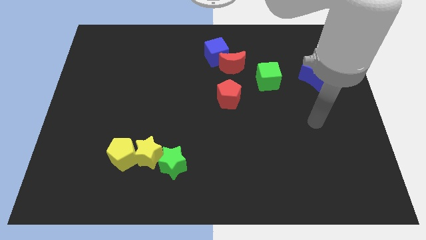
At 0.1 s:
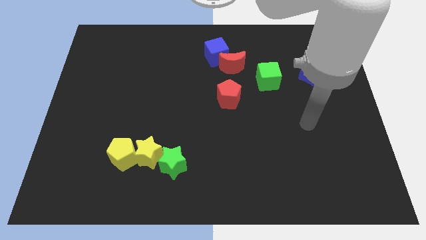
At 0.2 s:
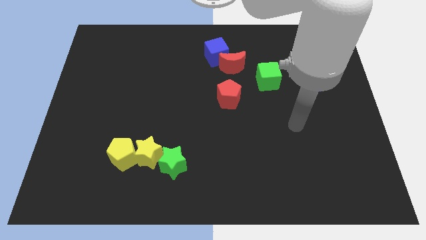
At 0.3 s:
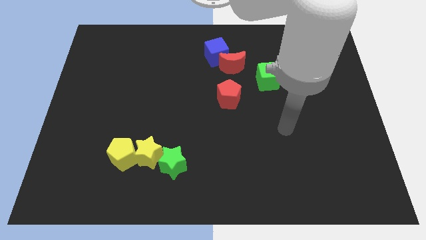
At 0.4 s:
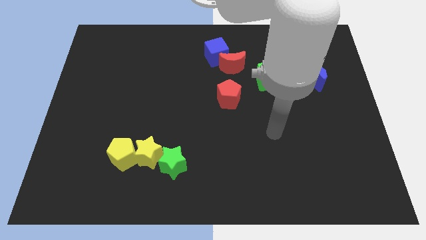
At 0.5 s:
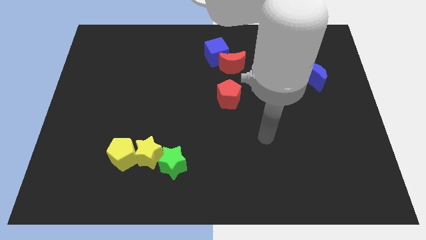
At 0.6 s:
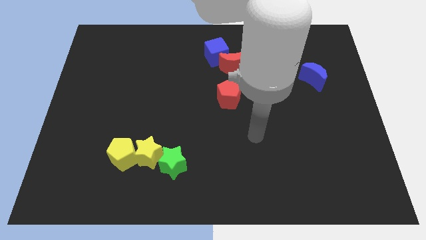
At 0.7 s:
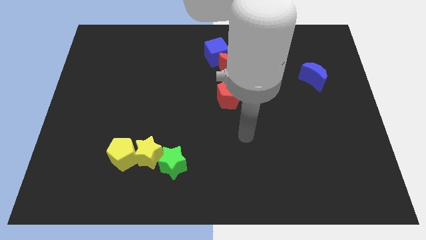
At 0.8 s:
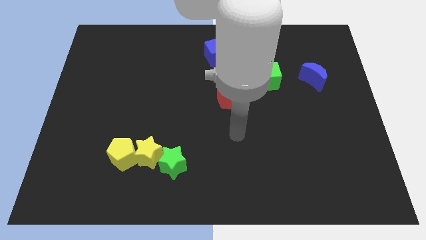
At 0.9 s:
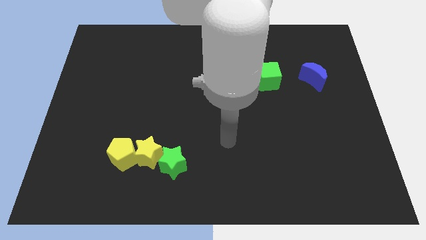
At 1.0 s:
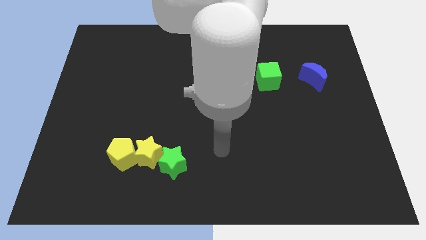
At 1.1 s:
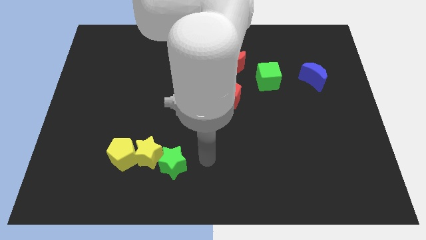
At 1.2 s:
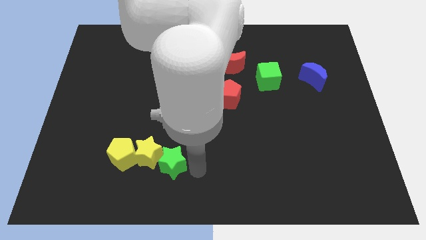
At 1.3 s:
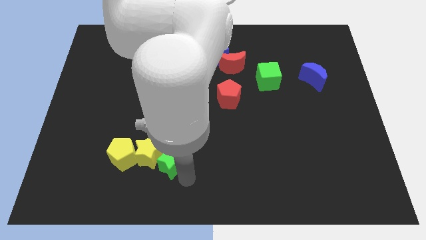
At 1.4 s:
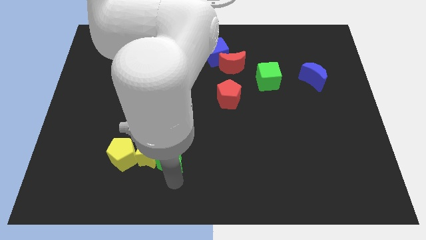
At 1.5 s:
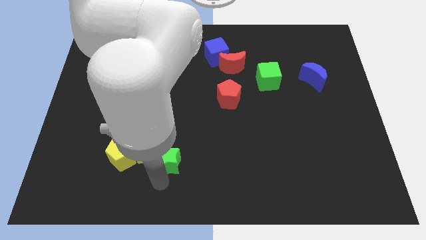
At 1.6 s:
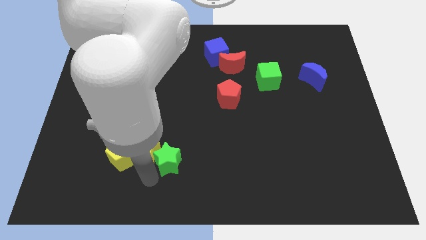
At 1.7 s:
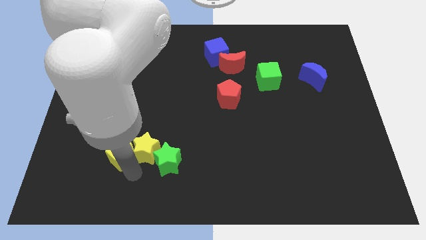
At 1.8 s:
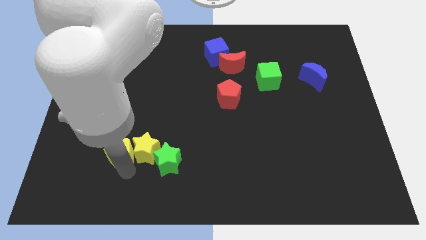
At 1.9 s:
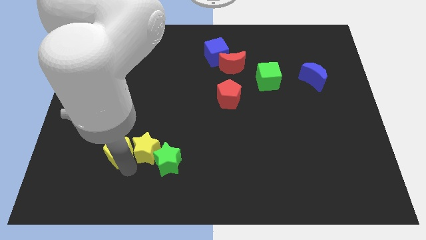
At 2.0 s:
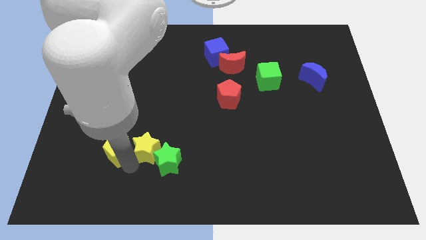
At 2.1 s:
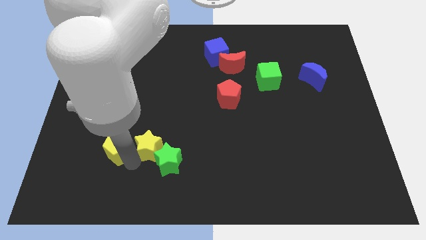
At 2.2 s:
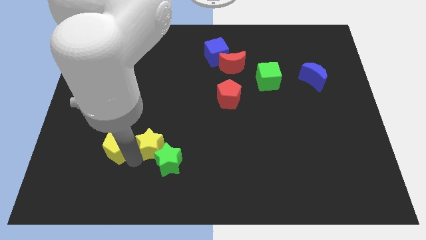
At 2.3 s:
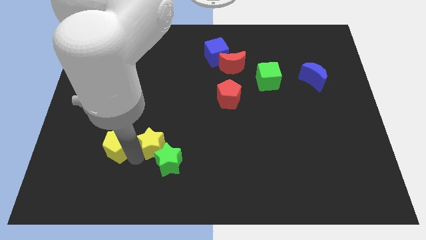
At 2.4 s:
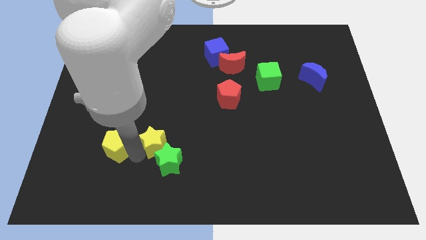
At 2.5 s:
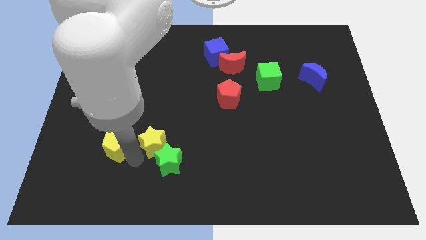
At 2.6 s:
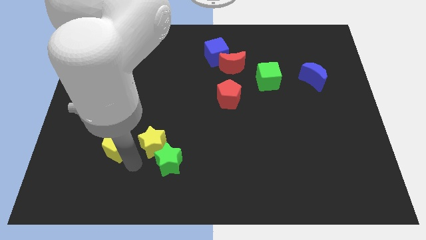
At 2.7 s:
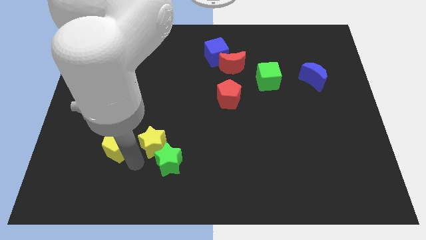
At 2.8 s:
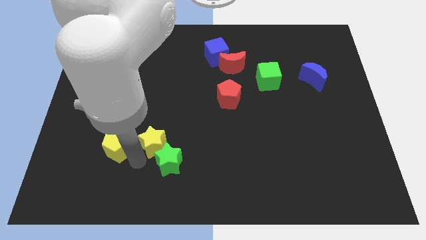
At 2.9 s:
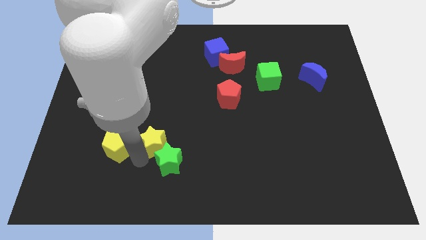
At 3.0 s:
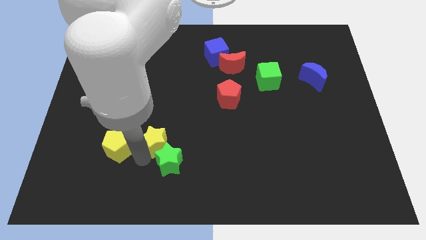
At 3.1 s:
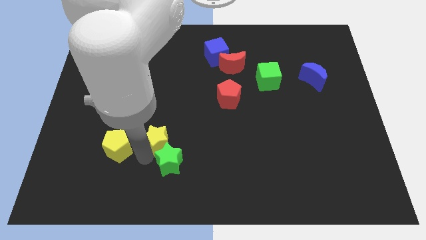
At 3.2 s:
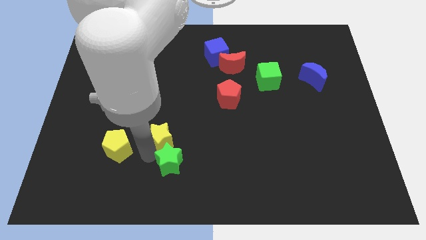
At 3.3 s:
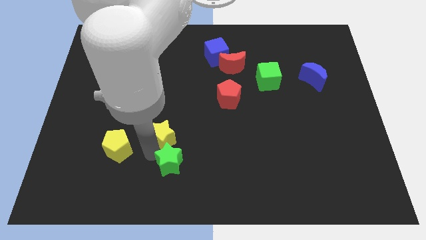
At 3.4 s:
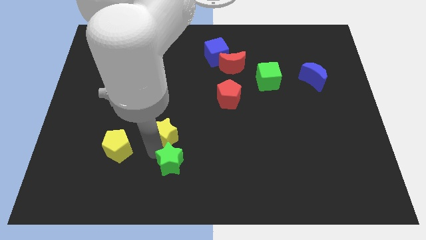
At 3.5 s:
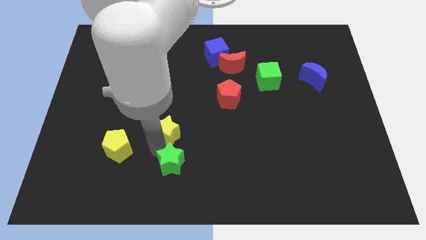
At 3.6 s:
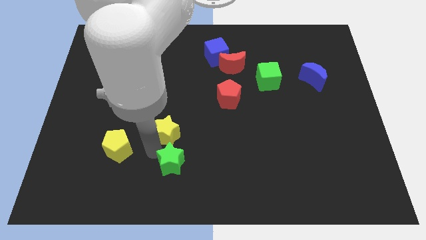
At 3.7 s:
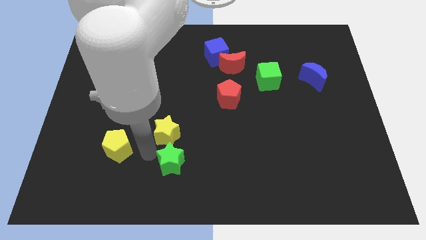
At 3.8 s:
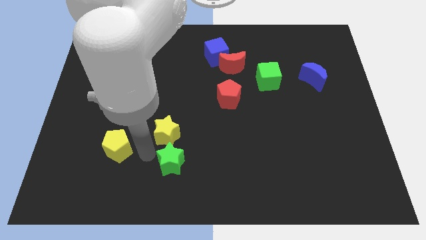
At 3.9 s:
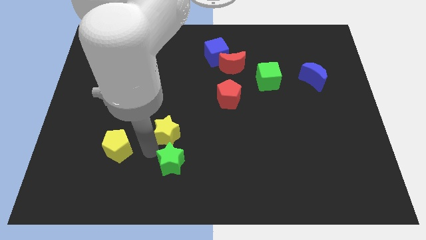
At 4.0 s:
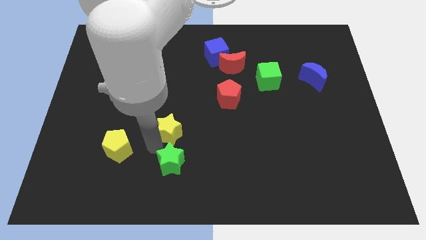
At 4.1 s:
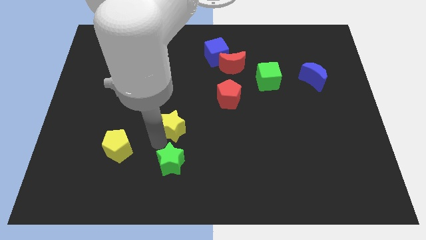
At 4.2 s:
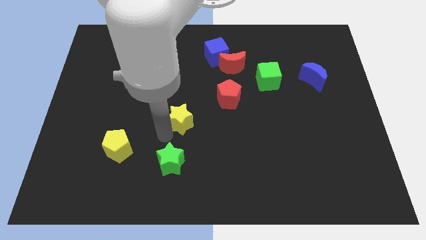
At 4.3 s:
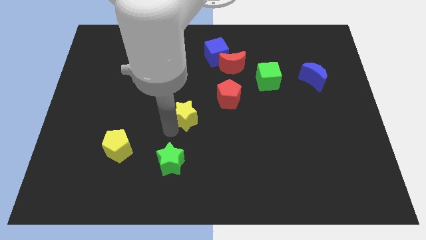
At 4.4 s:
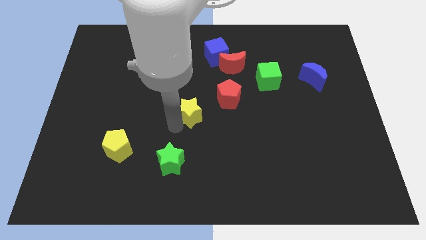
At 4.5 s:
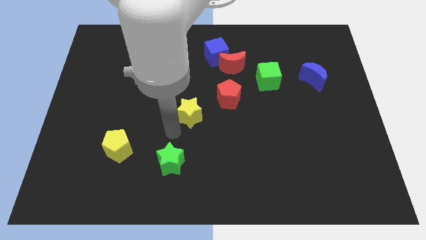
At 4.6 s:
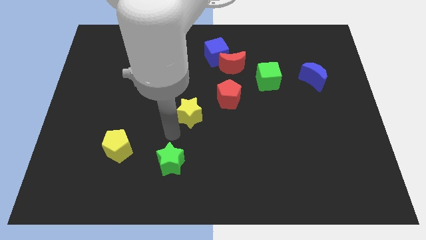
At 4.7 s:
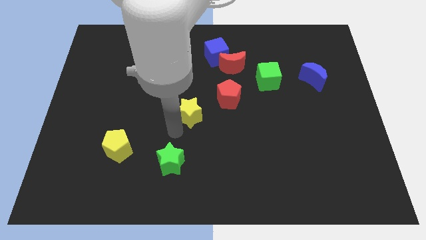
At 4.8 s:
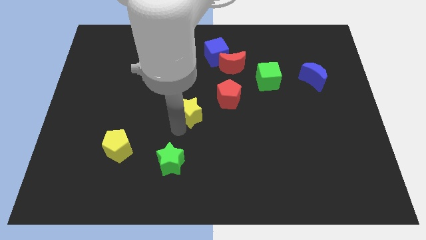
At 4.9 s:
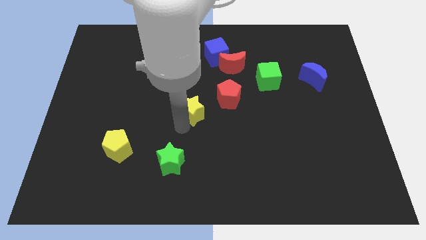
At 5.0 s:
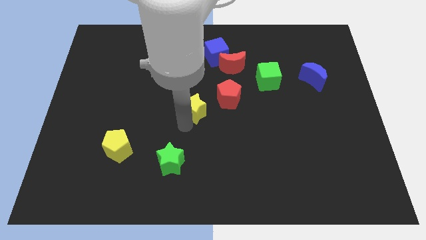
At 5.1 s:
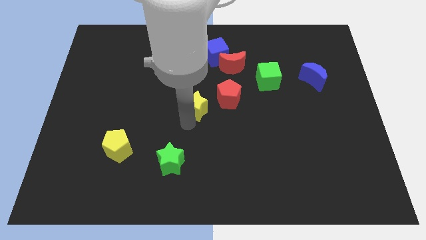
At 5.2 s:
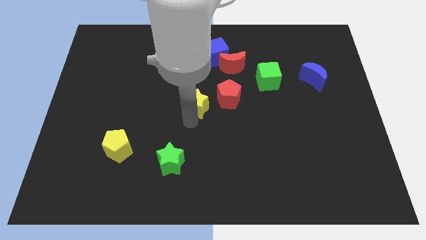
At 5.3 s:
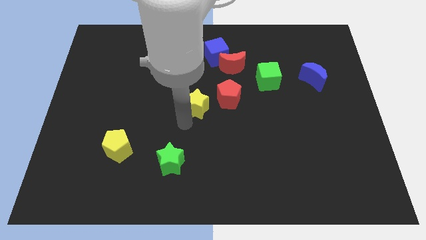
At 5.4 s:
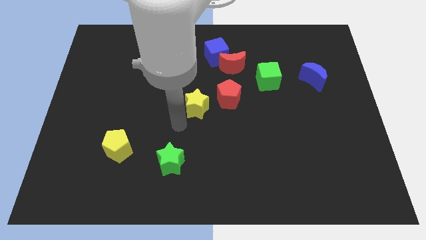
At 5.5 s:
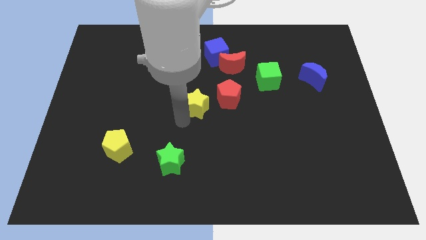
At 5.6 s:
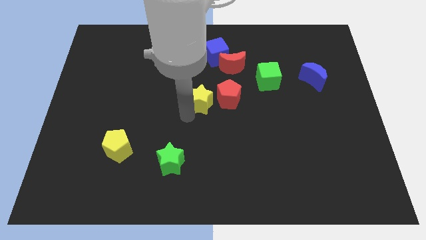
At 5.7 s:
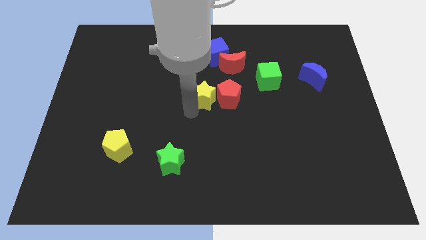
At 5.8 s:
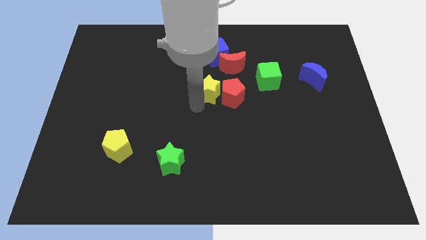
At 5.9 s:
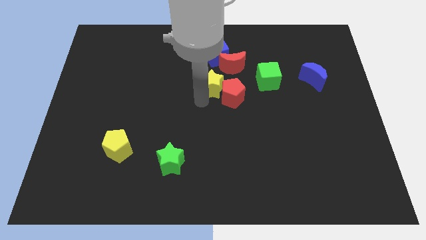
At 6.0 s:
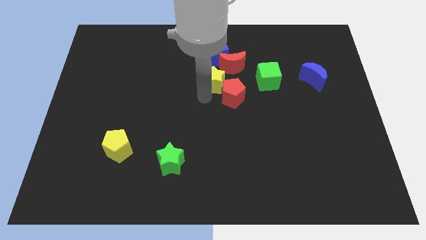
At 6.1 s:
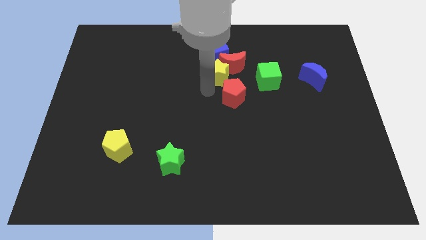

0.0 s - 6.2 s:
push the yellow star close to the red moon

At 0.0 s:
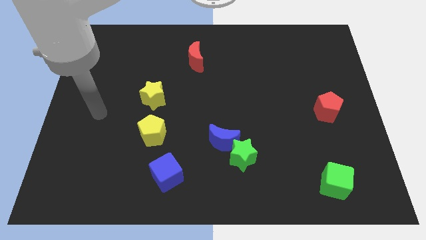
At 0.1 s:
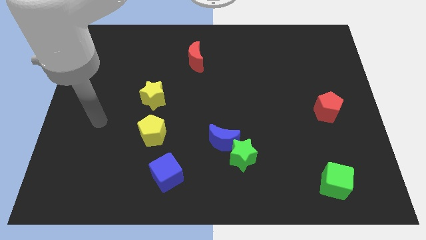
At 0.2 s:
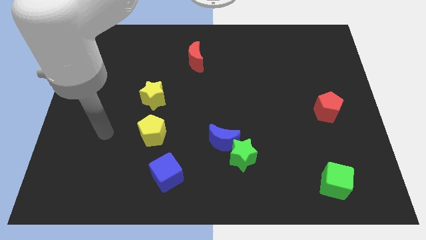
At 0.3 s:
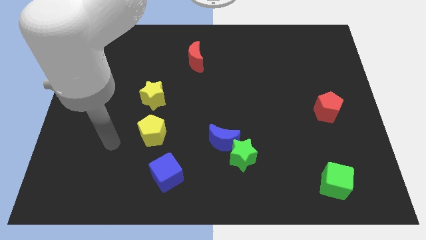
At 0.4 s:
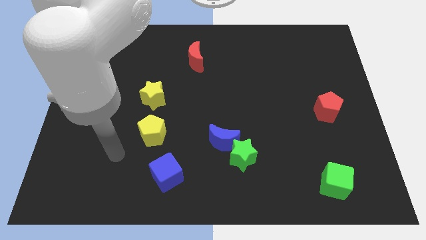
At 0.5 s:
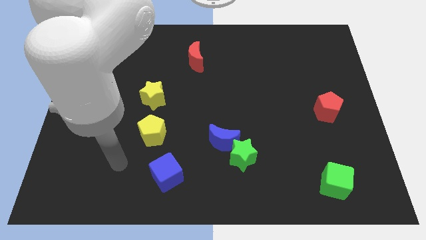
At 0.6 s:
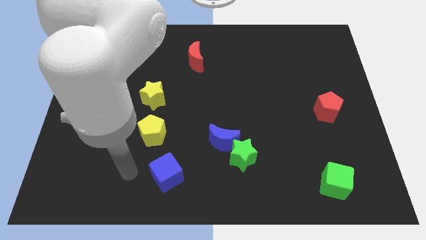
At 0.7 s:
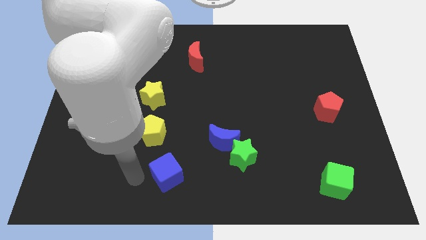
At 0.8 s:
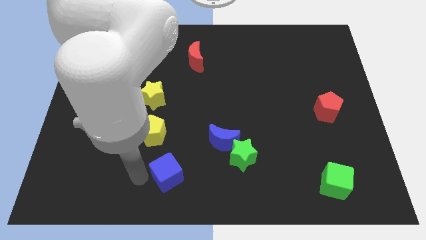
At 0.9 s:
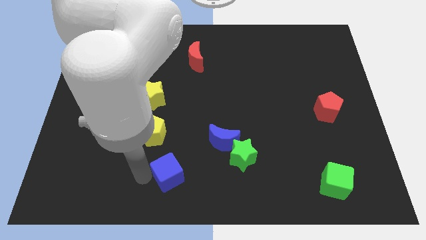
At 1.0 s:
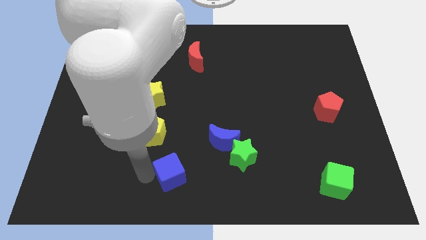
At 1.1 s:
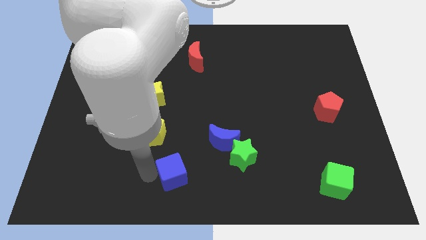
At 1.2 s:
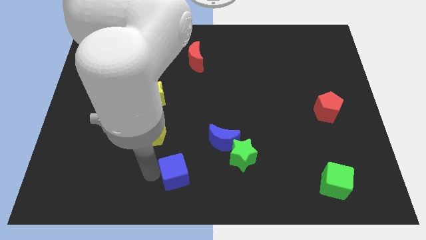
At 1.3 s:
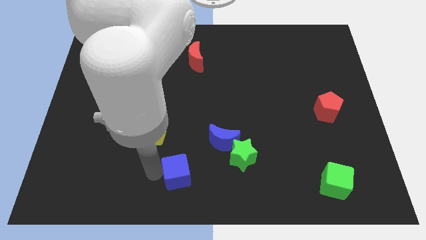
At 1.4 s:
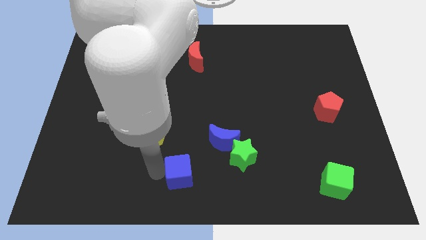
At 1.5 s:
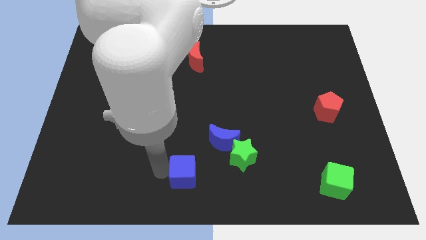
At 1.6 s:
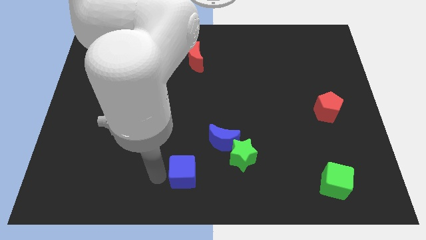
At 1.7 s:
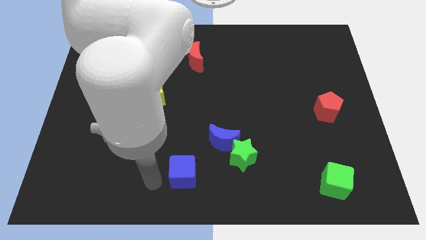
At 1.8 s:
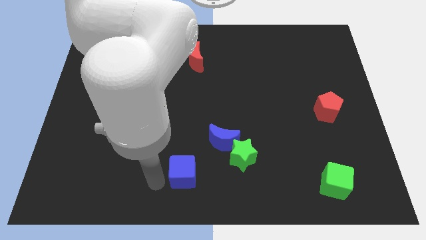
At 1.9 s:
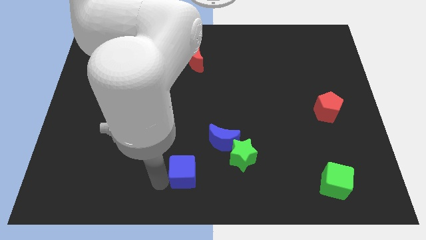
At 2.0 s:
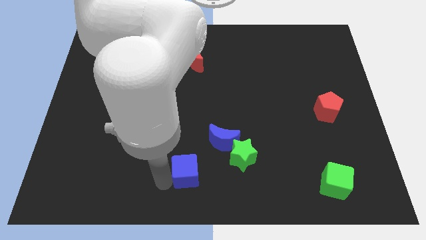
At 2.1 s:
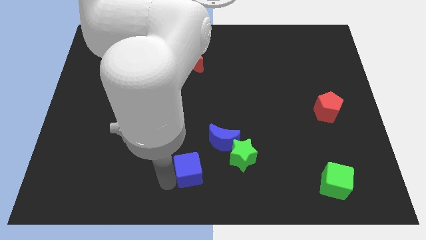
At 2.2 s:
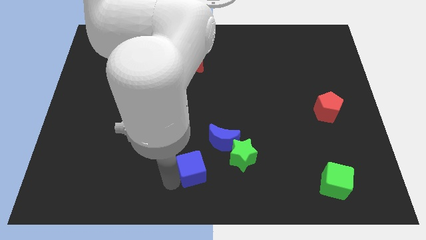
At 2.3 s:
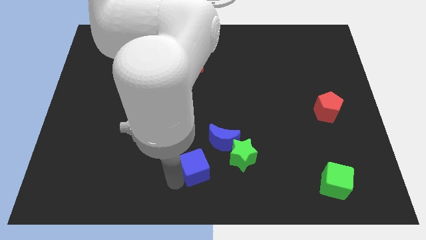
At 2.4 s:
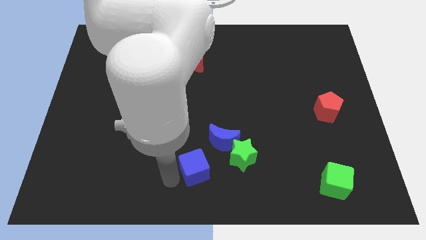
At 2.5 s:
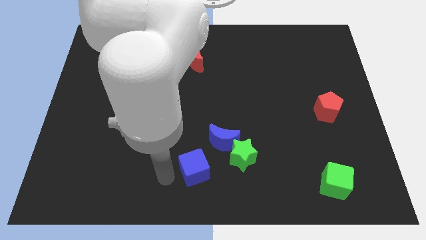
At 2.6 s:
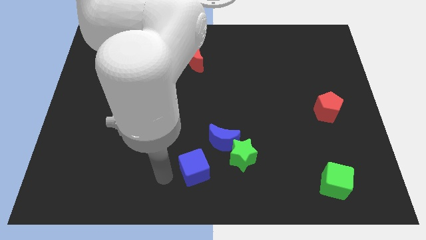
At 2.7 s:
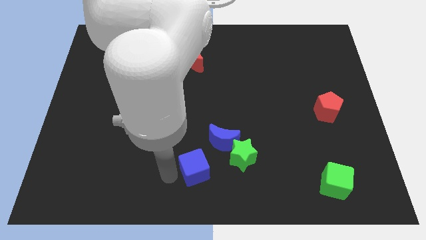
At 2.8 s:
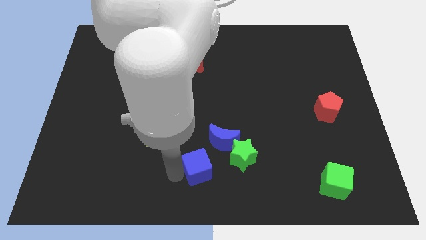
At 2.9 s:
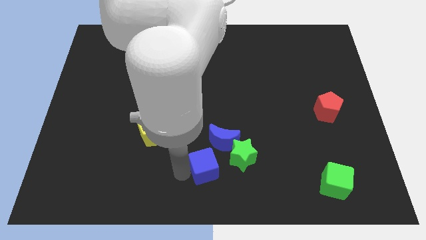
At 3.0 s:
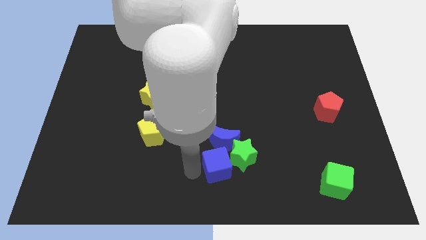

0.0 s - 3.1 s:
slide the blue cube to the green star
